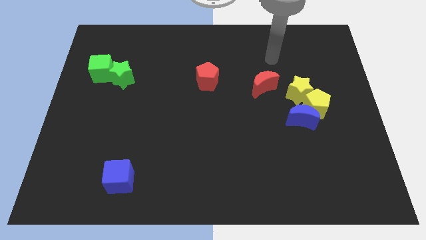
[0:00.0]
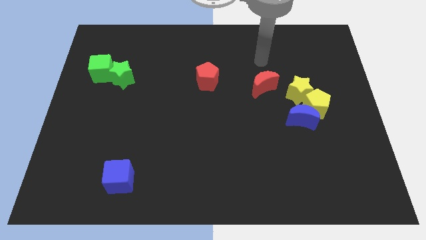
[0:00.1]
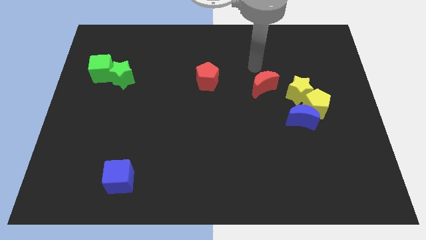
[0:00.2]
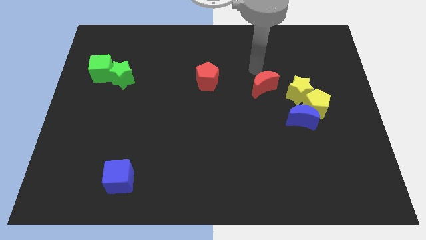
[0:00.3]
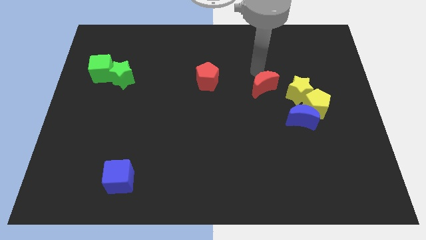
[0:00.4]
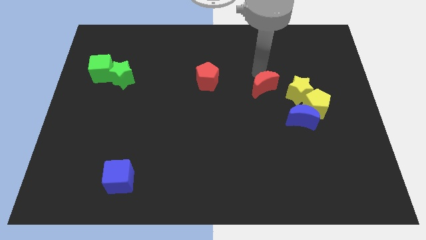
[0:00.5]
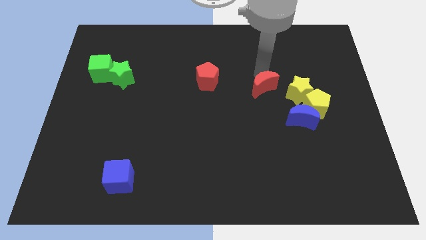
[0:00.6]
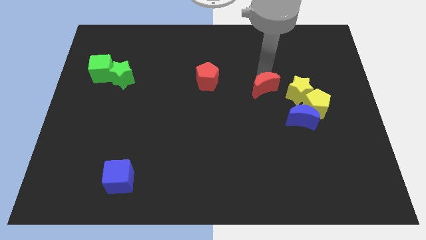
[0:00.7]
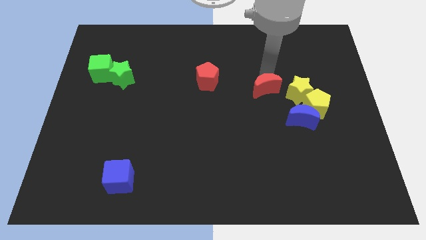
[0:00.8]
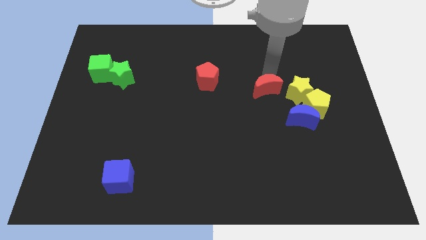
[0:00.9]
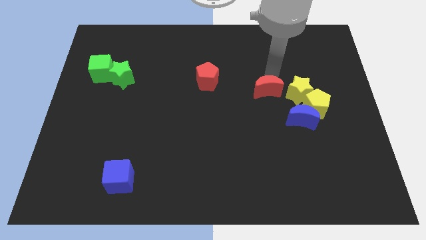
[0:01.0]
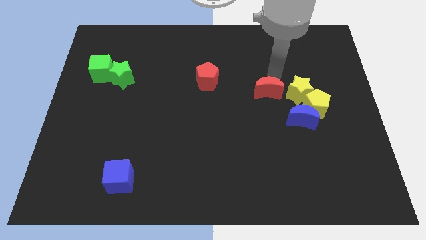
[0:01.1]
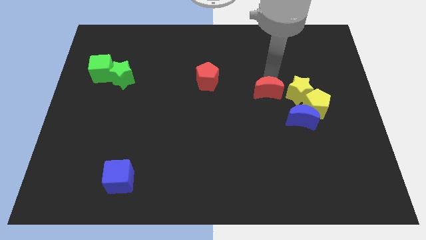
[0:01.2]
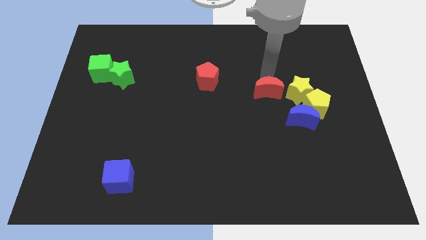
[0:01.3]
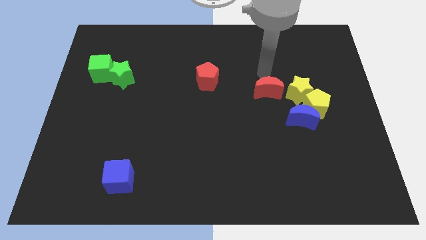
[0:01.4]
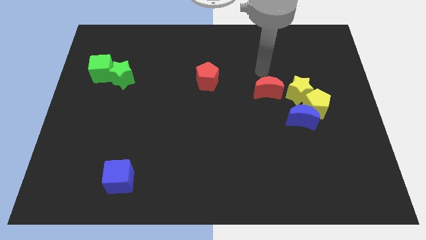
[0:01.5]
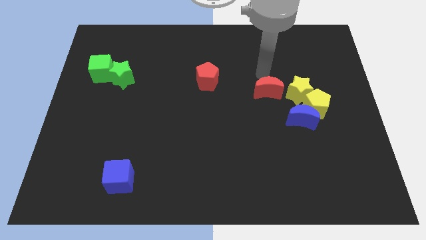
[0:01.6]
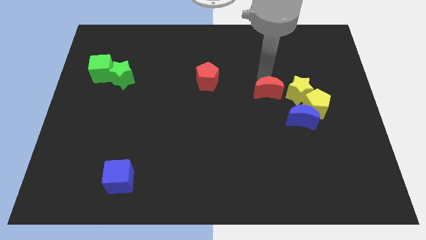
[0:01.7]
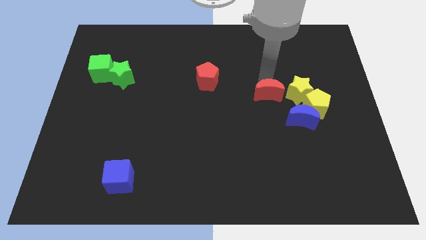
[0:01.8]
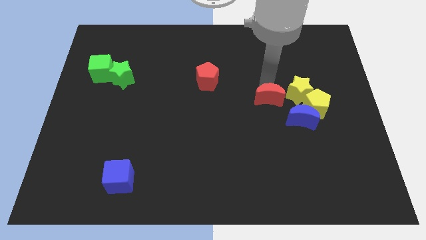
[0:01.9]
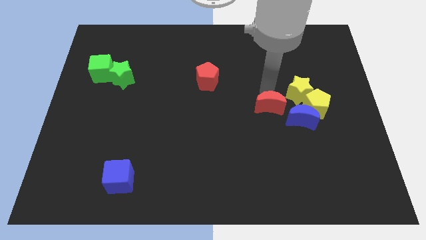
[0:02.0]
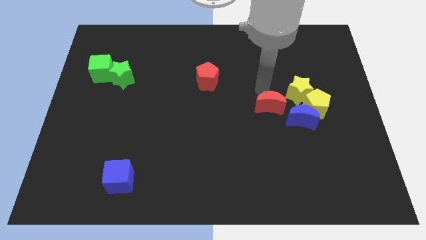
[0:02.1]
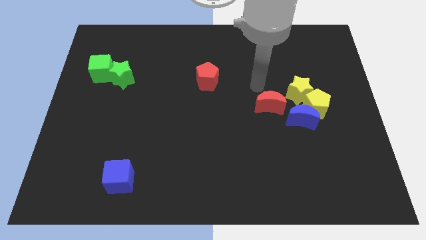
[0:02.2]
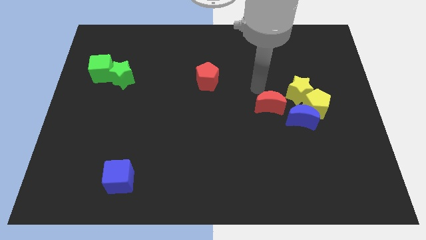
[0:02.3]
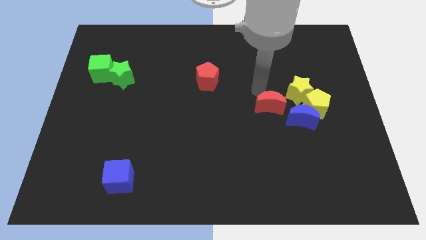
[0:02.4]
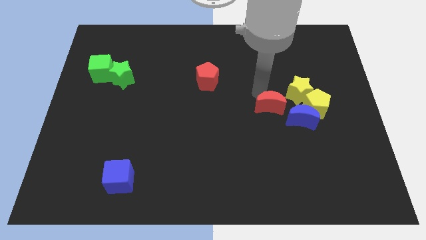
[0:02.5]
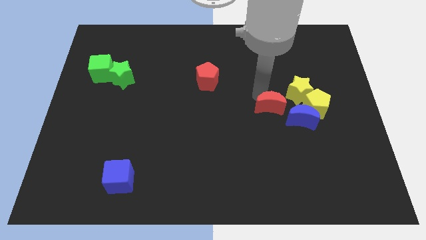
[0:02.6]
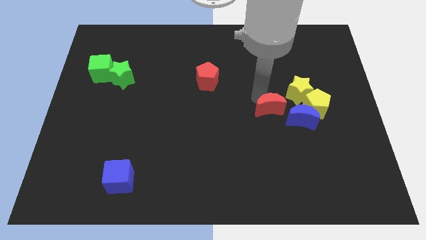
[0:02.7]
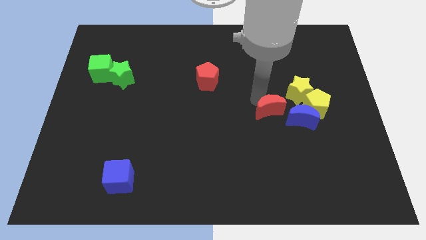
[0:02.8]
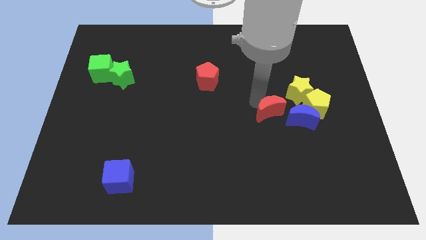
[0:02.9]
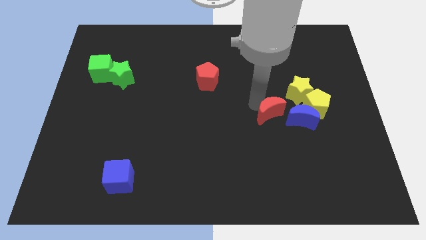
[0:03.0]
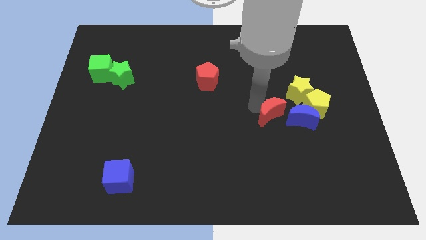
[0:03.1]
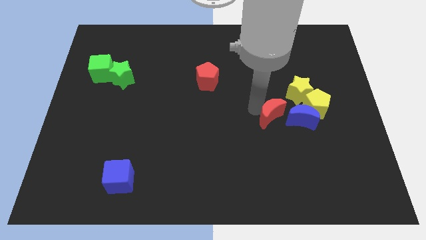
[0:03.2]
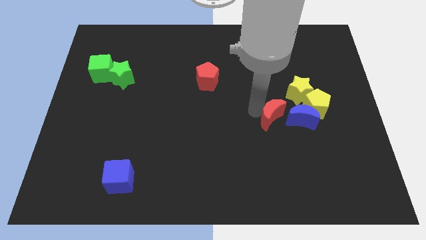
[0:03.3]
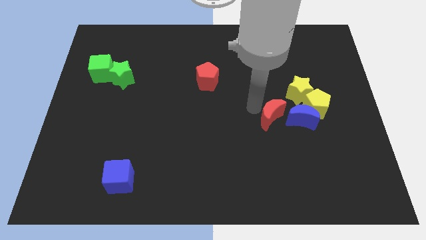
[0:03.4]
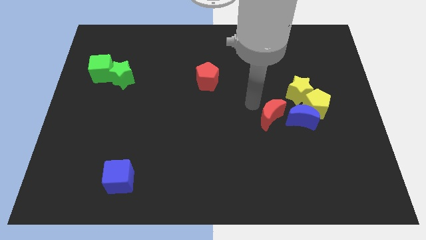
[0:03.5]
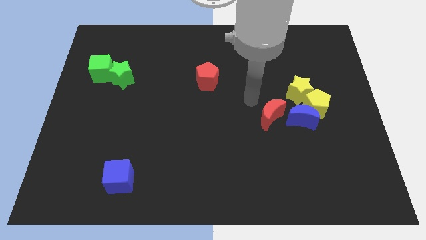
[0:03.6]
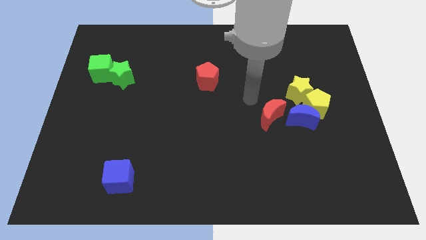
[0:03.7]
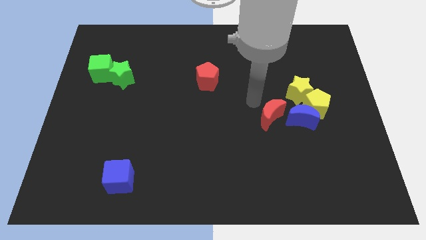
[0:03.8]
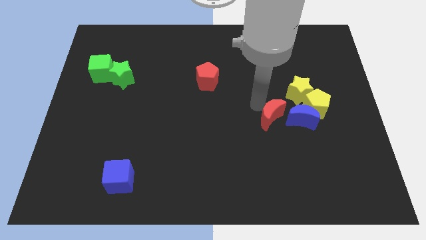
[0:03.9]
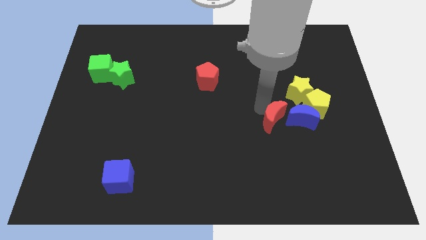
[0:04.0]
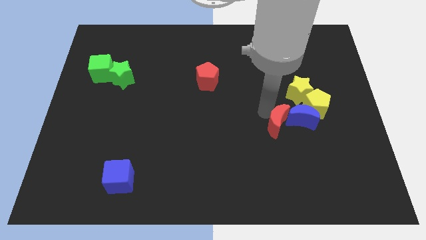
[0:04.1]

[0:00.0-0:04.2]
push the red moon downwards and then to the right a little

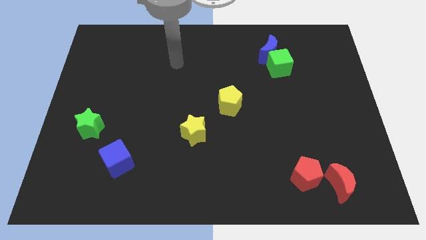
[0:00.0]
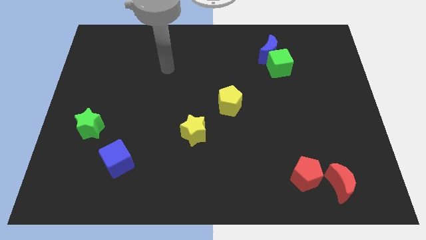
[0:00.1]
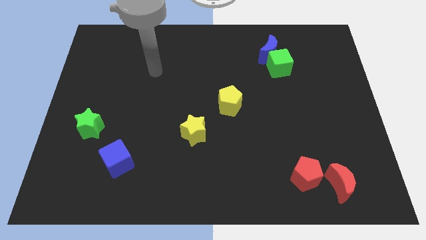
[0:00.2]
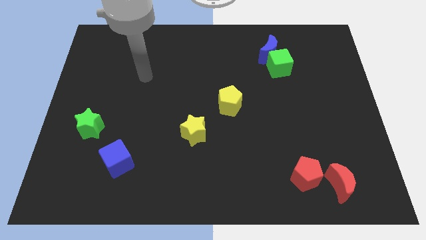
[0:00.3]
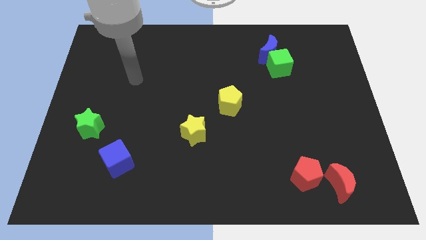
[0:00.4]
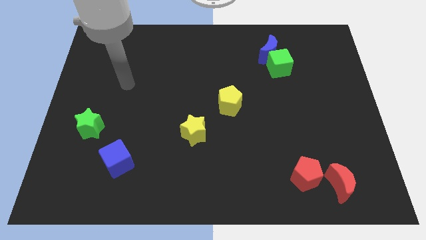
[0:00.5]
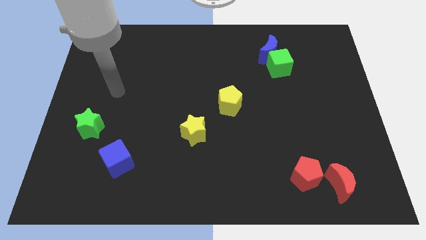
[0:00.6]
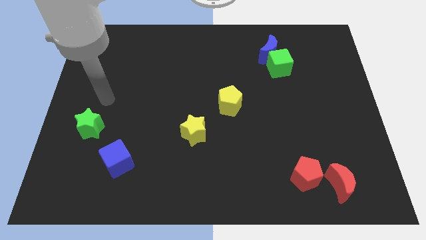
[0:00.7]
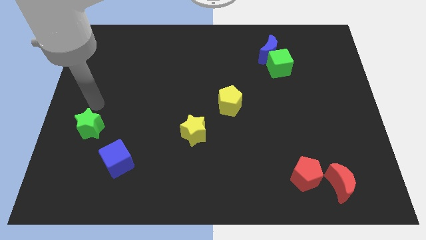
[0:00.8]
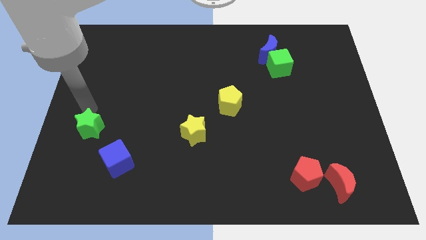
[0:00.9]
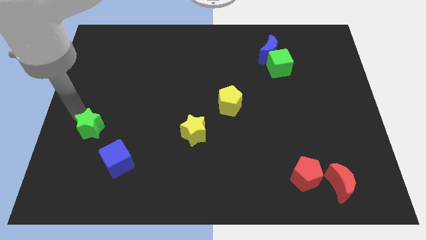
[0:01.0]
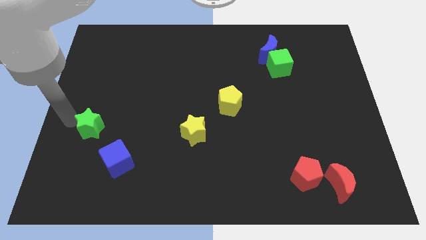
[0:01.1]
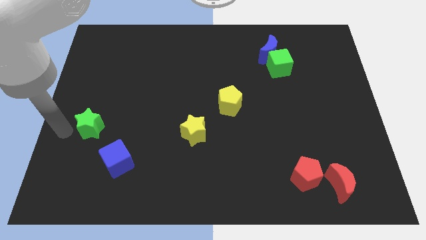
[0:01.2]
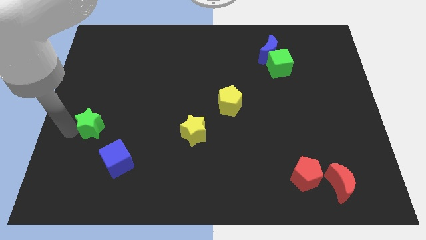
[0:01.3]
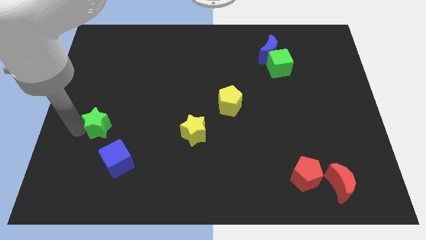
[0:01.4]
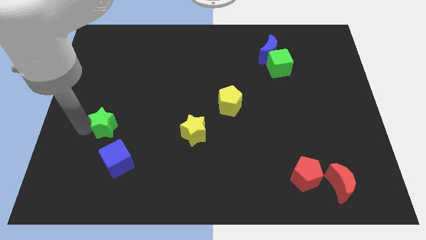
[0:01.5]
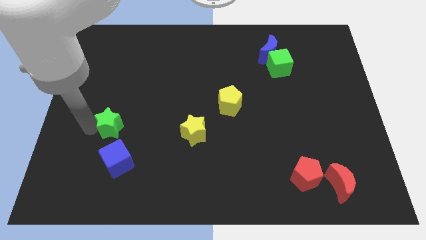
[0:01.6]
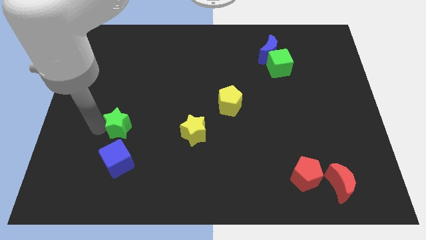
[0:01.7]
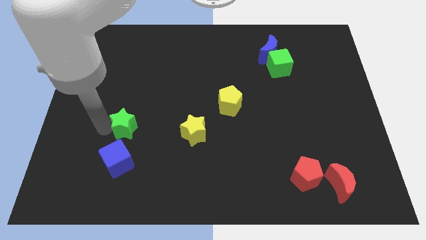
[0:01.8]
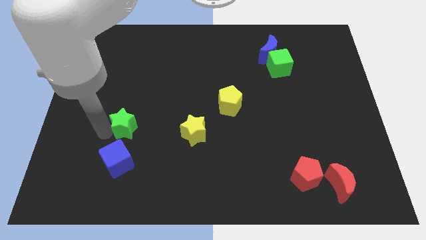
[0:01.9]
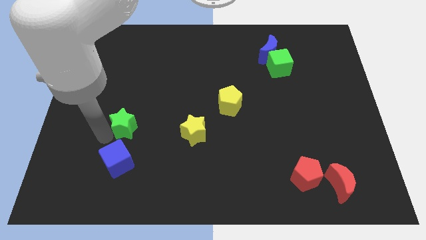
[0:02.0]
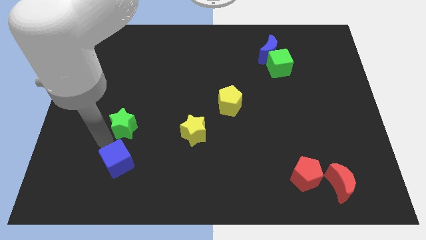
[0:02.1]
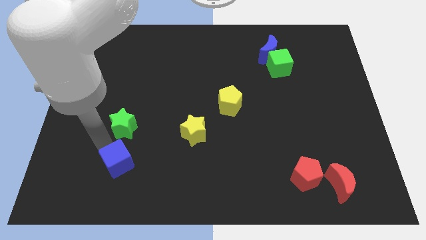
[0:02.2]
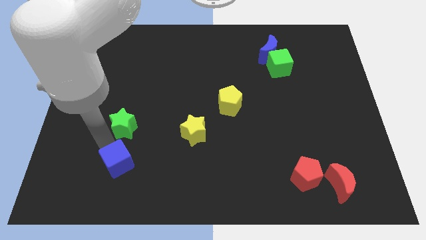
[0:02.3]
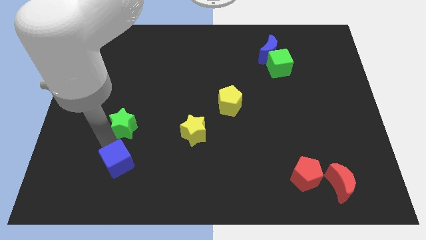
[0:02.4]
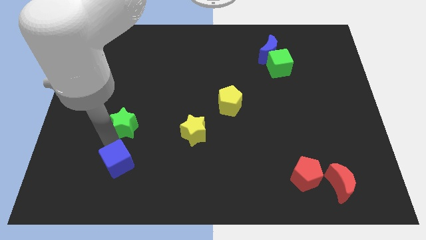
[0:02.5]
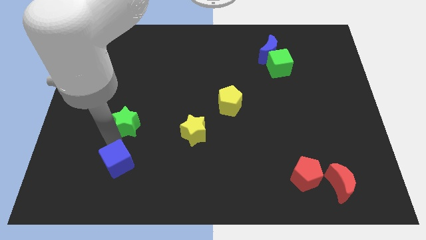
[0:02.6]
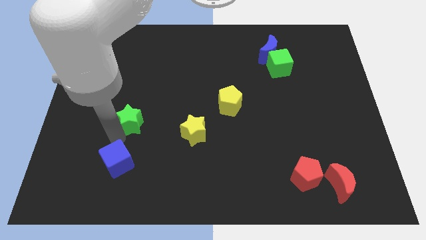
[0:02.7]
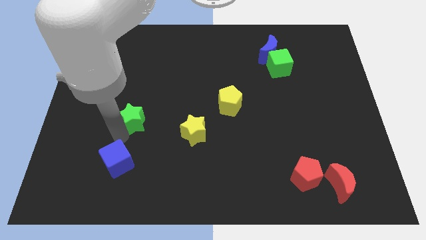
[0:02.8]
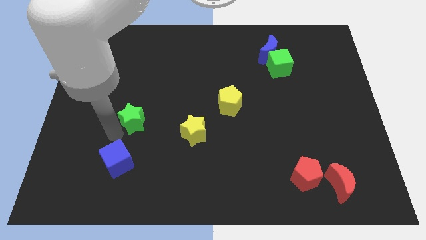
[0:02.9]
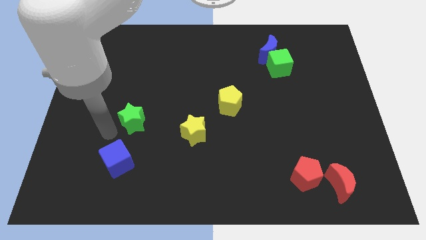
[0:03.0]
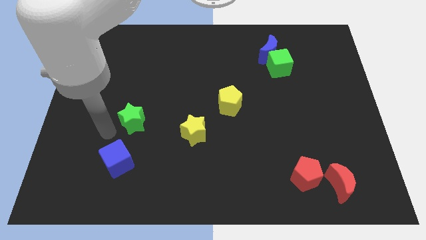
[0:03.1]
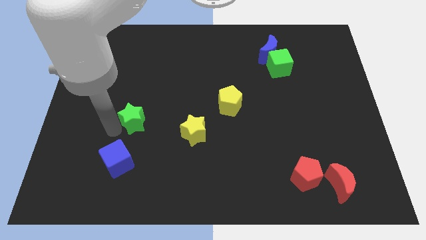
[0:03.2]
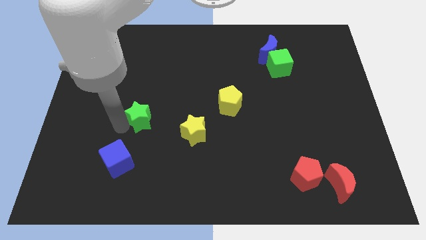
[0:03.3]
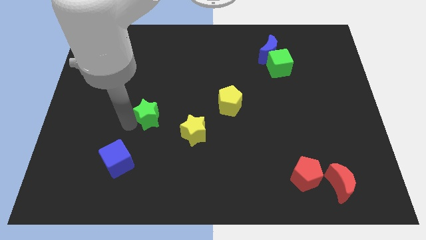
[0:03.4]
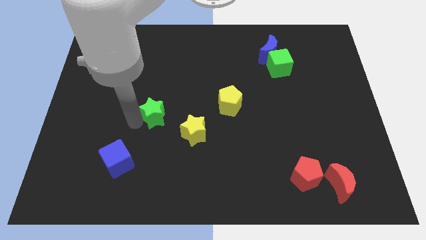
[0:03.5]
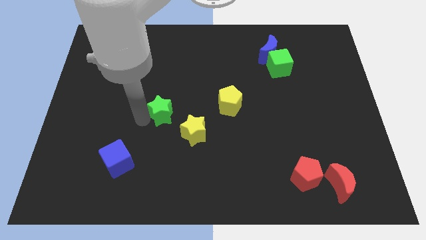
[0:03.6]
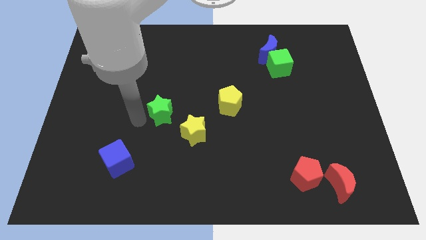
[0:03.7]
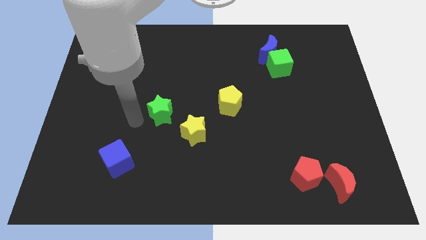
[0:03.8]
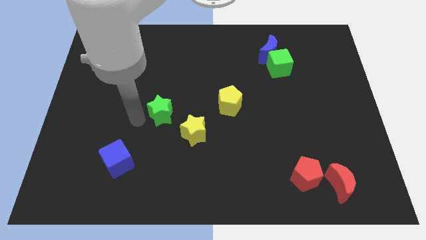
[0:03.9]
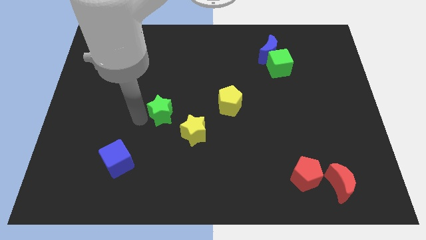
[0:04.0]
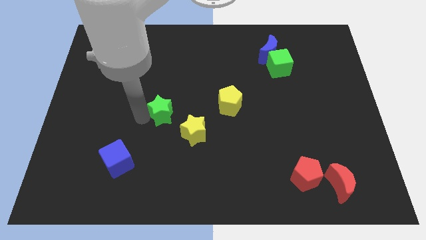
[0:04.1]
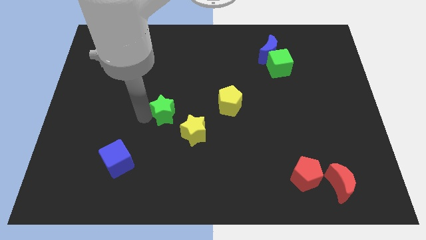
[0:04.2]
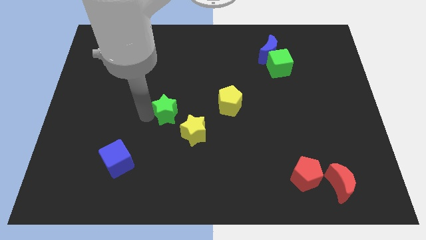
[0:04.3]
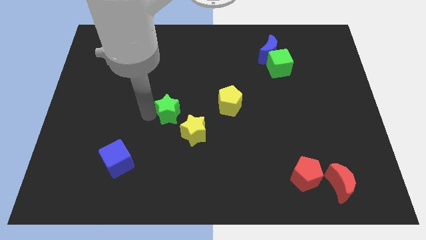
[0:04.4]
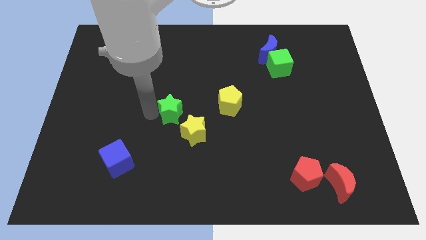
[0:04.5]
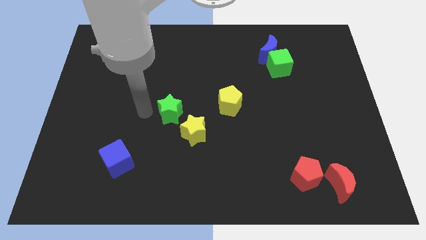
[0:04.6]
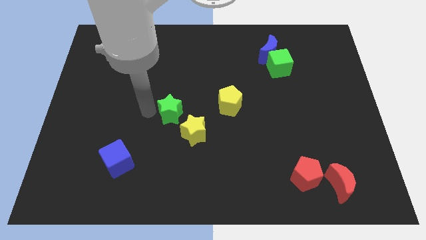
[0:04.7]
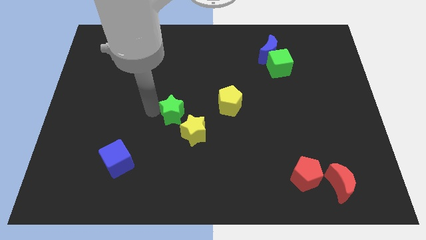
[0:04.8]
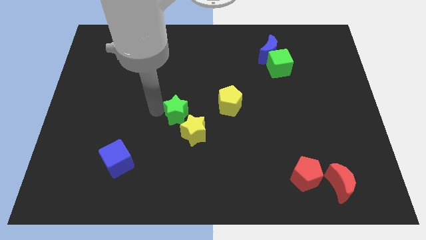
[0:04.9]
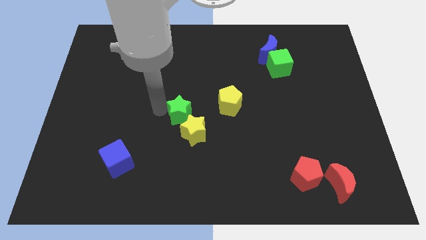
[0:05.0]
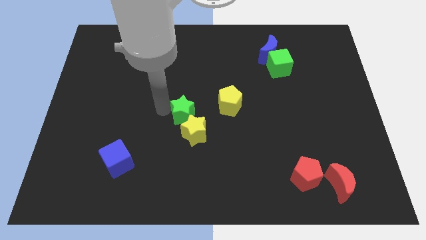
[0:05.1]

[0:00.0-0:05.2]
push the green star right
